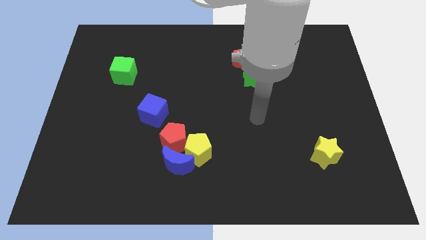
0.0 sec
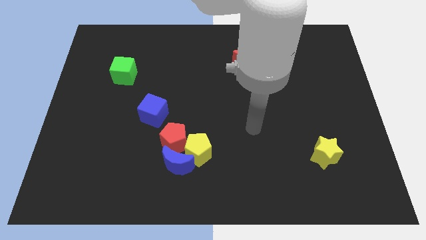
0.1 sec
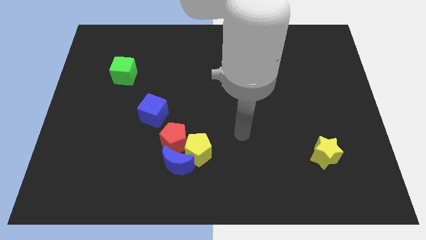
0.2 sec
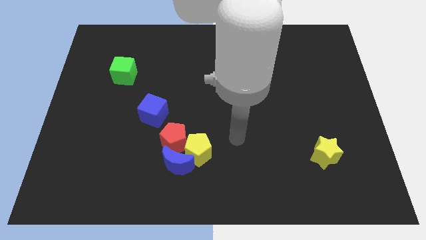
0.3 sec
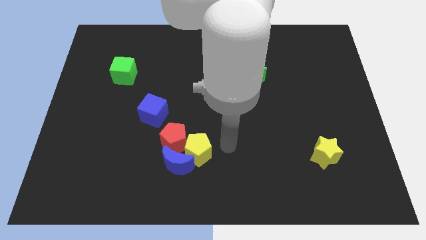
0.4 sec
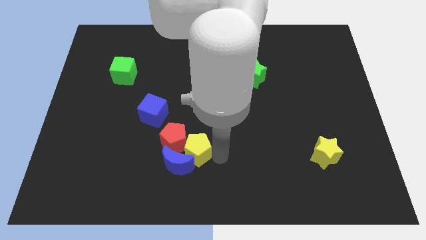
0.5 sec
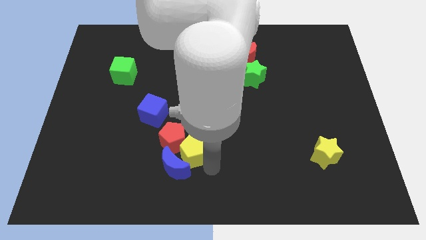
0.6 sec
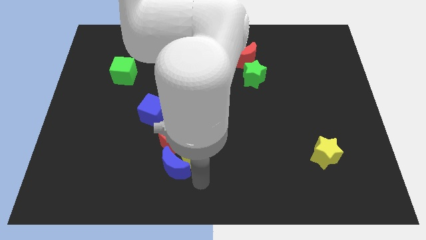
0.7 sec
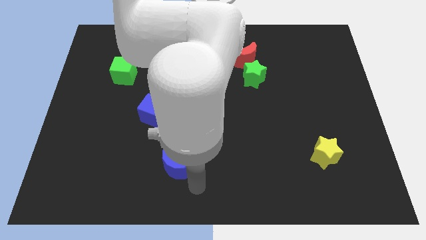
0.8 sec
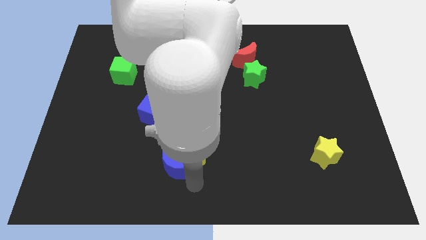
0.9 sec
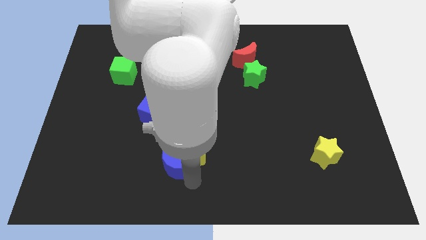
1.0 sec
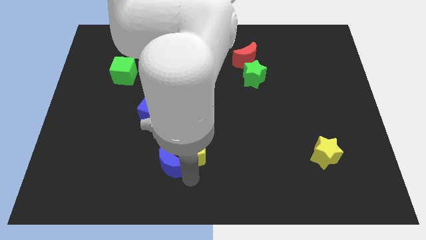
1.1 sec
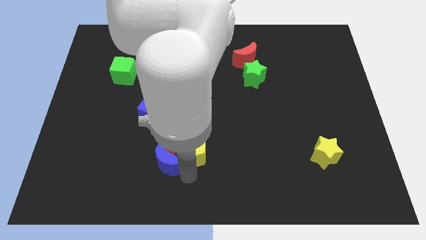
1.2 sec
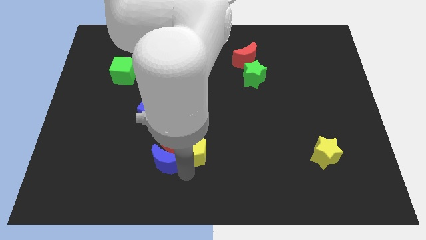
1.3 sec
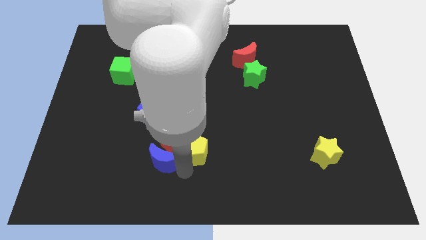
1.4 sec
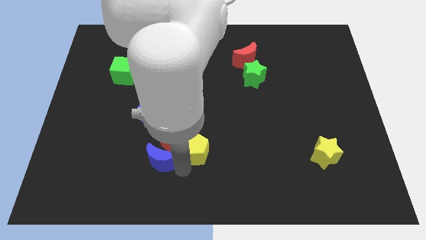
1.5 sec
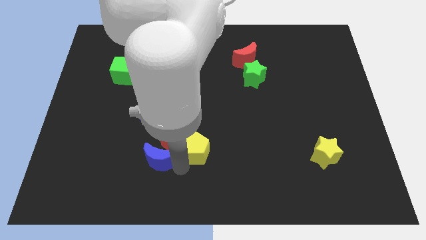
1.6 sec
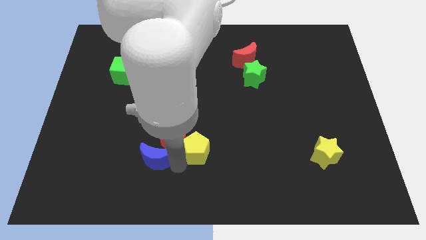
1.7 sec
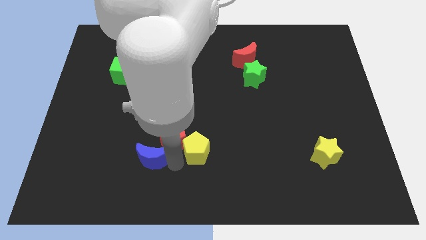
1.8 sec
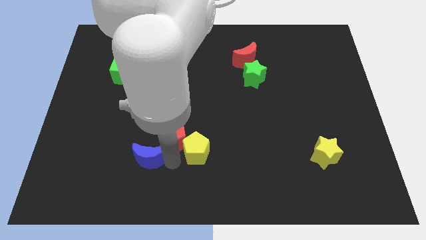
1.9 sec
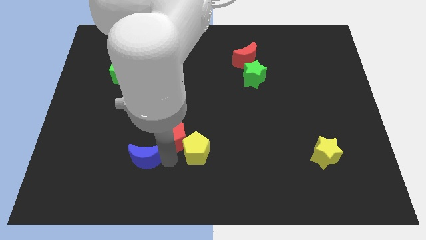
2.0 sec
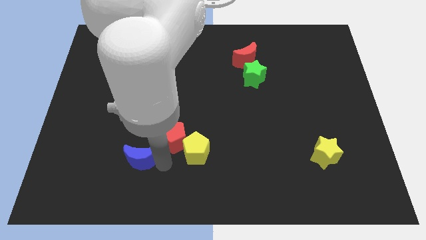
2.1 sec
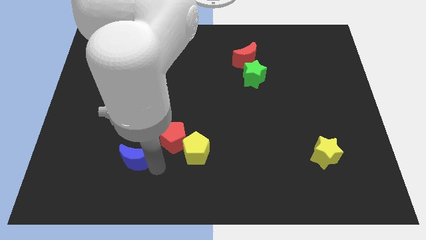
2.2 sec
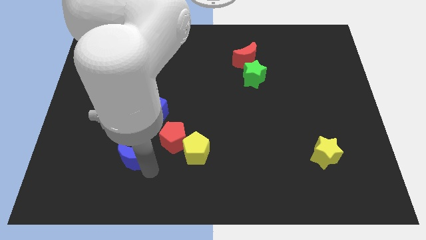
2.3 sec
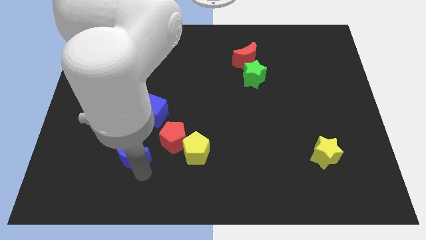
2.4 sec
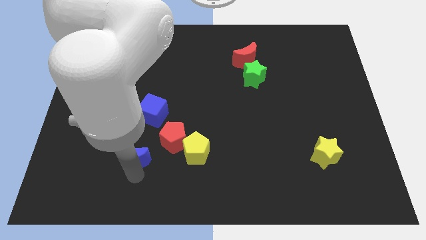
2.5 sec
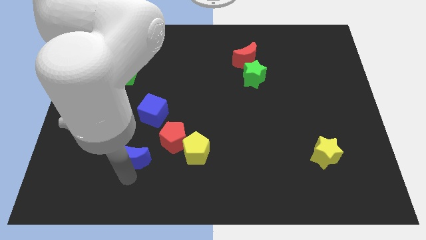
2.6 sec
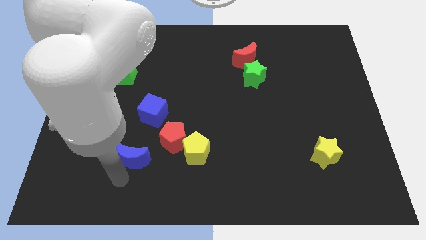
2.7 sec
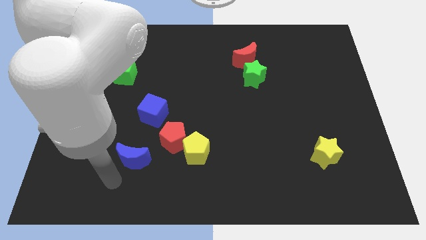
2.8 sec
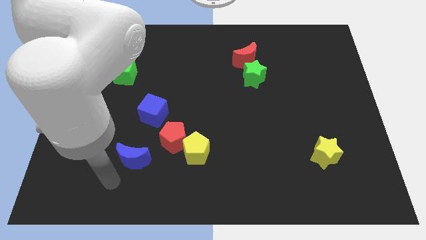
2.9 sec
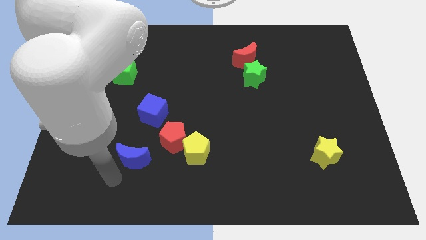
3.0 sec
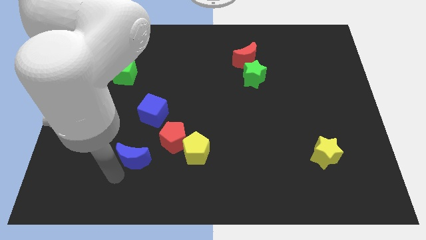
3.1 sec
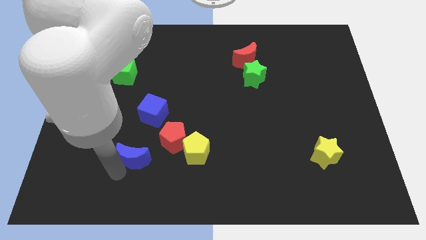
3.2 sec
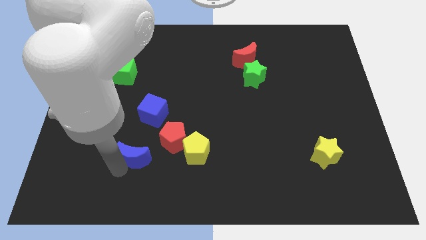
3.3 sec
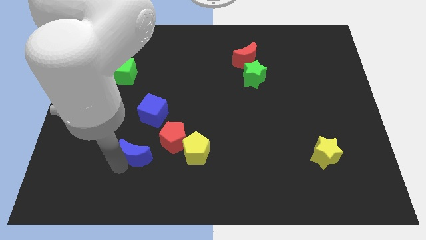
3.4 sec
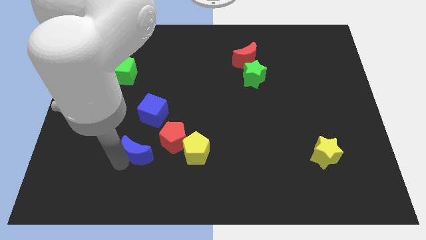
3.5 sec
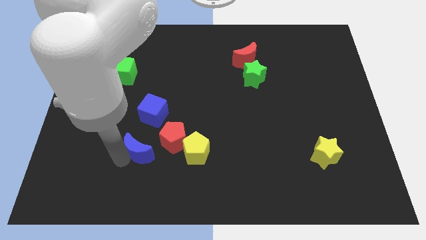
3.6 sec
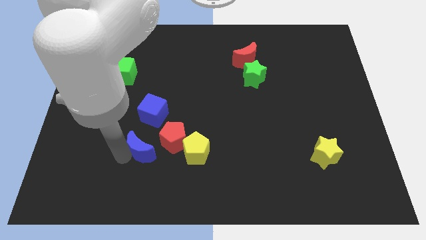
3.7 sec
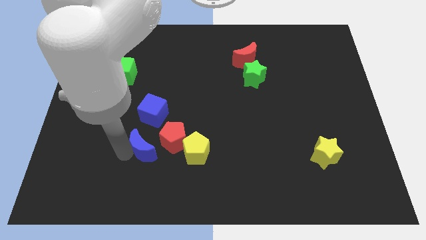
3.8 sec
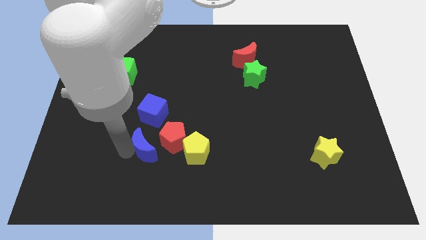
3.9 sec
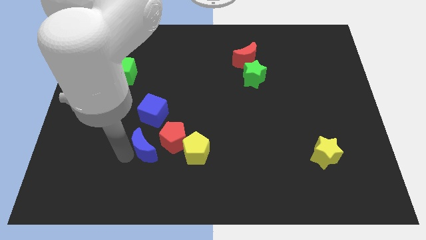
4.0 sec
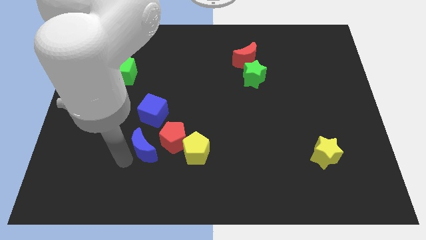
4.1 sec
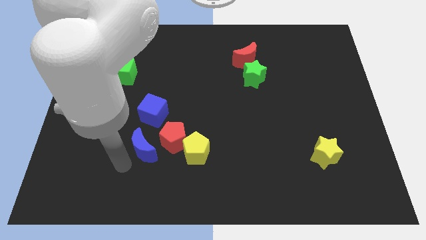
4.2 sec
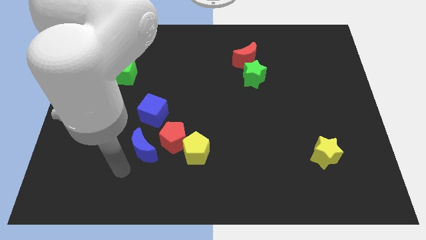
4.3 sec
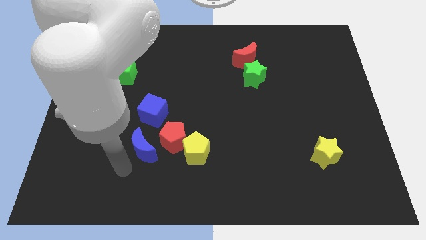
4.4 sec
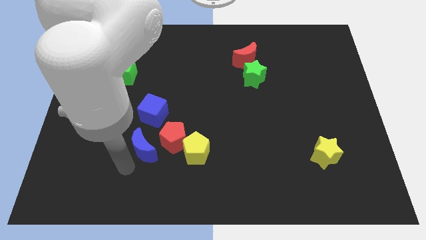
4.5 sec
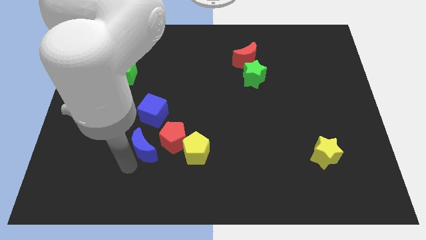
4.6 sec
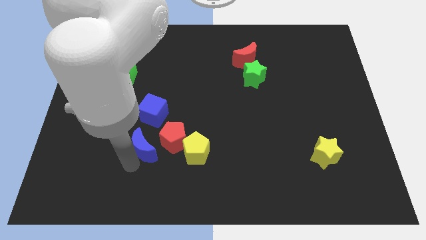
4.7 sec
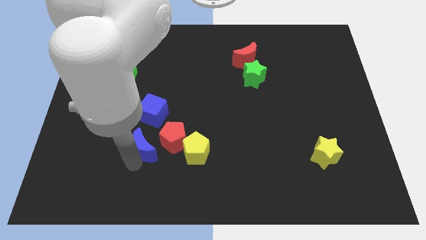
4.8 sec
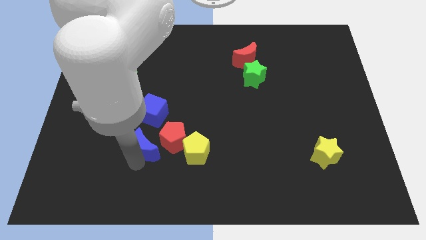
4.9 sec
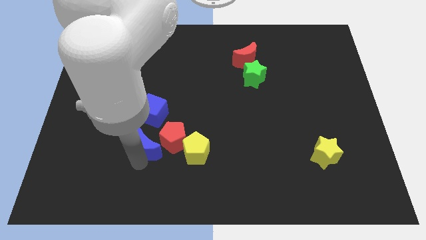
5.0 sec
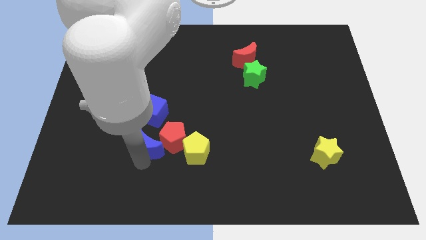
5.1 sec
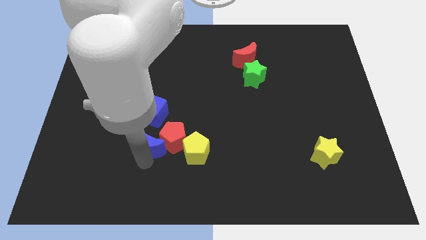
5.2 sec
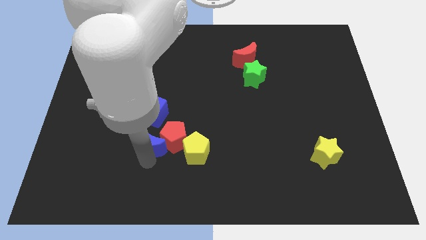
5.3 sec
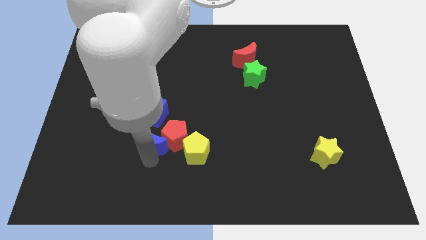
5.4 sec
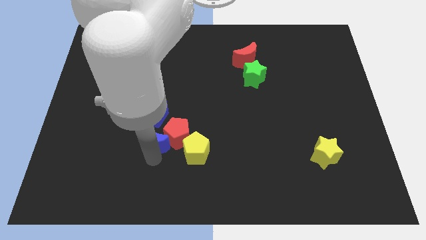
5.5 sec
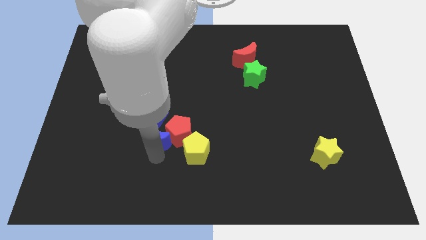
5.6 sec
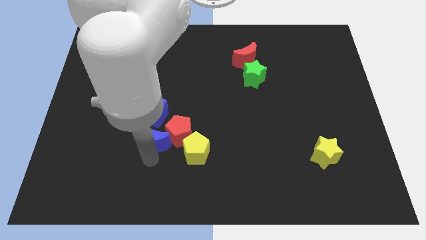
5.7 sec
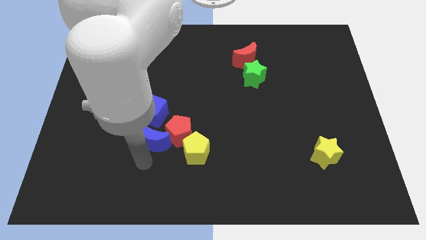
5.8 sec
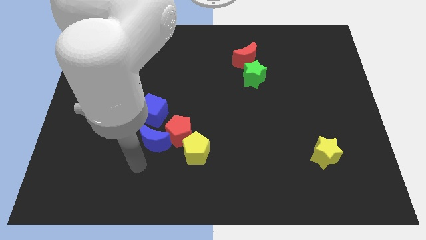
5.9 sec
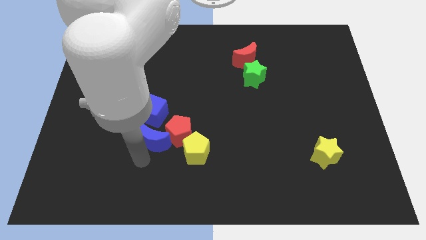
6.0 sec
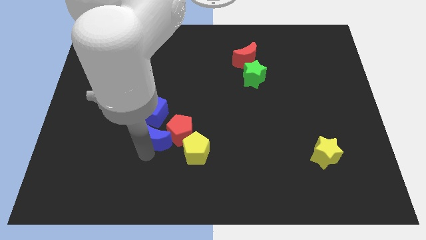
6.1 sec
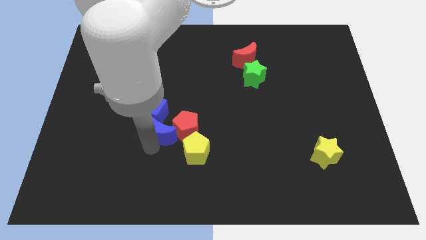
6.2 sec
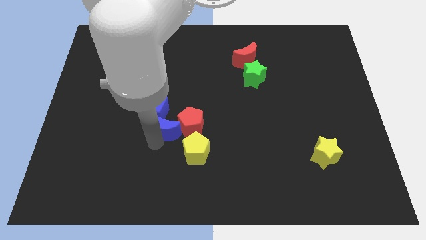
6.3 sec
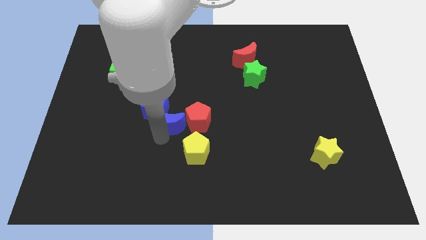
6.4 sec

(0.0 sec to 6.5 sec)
push the blue moon to the center of the board

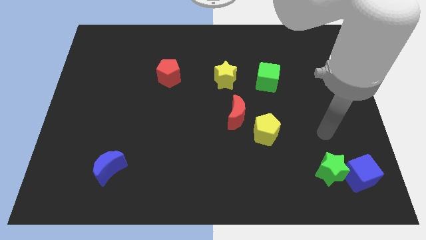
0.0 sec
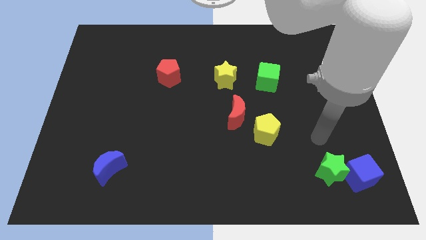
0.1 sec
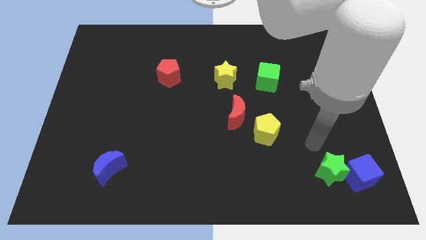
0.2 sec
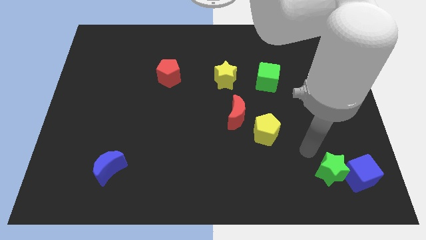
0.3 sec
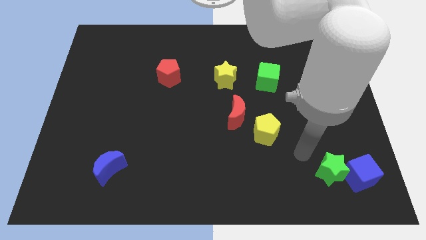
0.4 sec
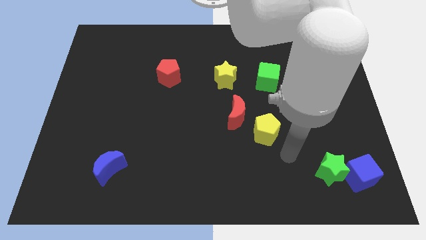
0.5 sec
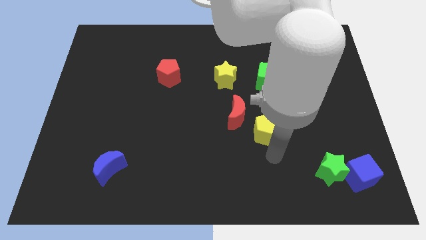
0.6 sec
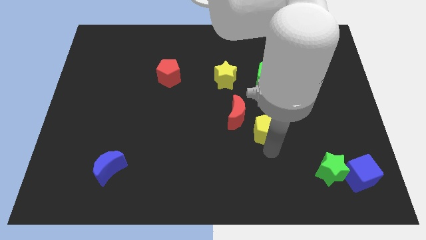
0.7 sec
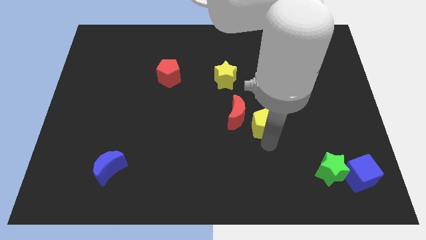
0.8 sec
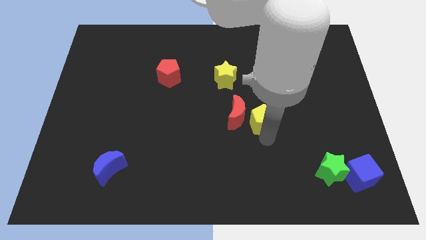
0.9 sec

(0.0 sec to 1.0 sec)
put the yellow pentagon to the center
